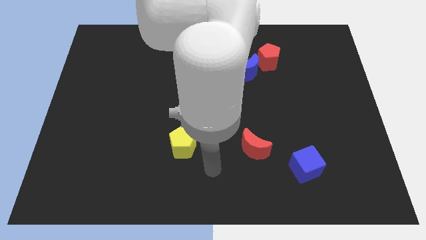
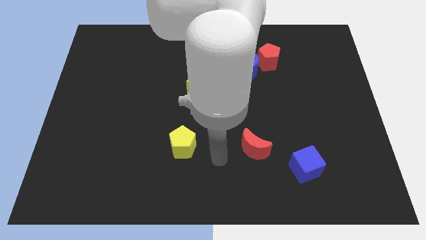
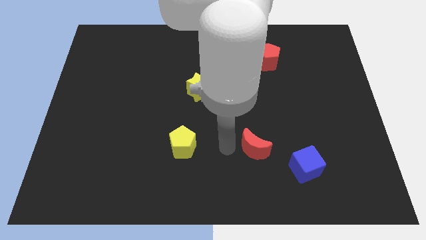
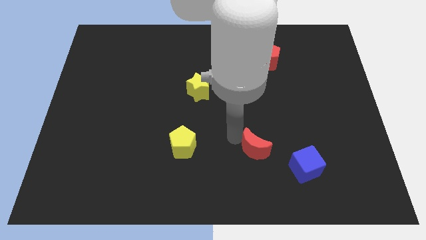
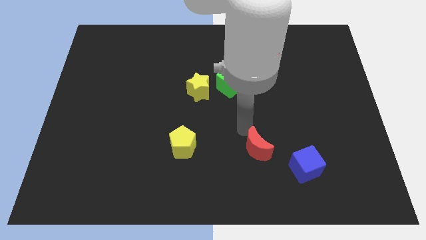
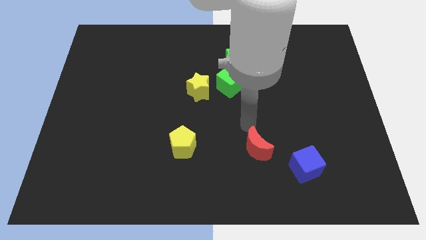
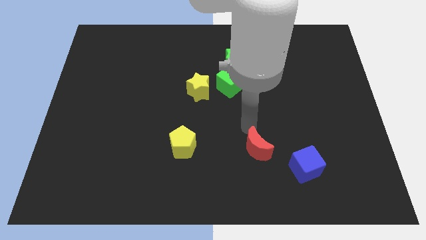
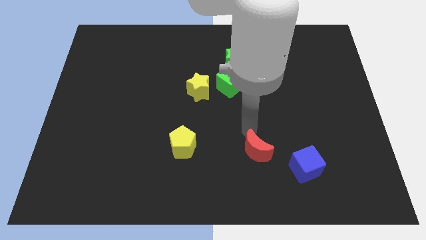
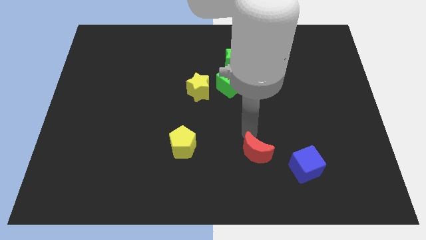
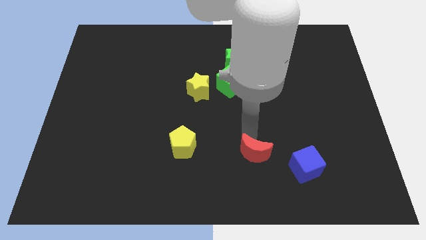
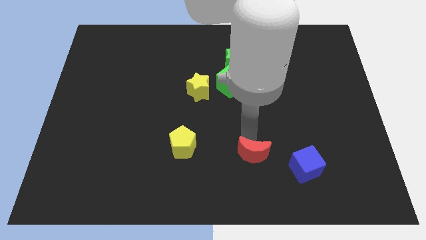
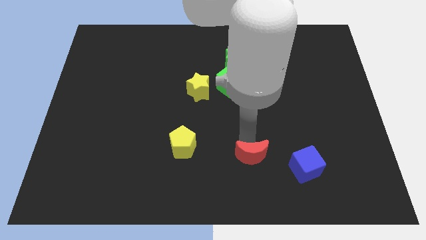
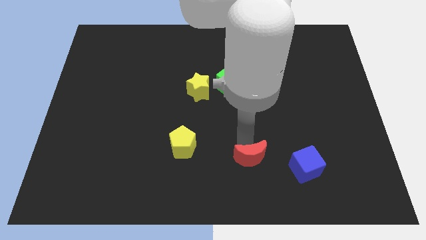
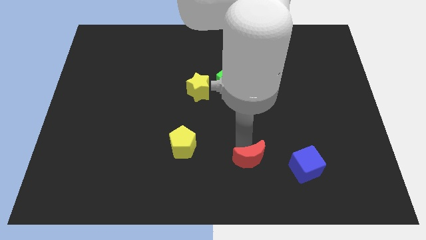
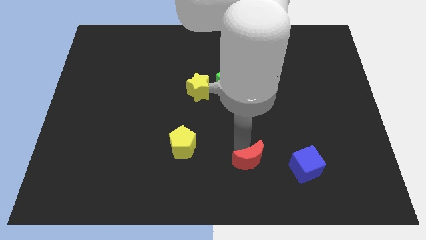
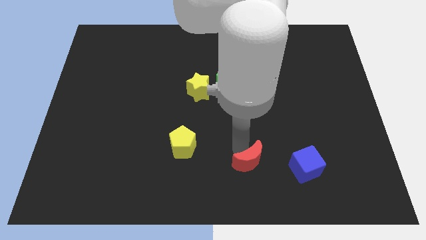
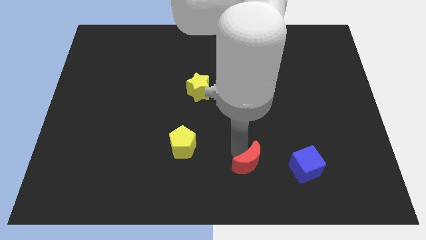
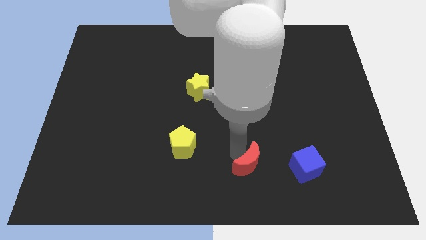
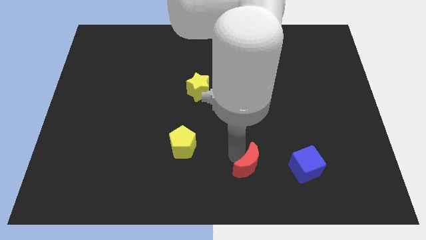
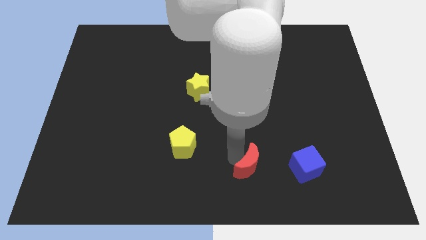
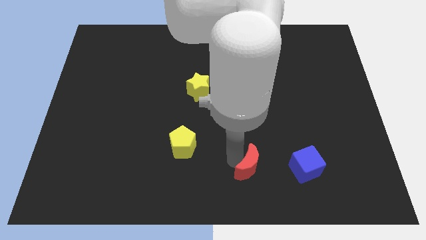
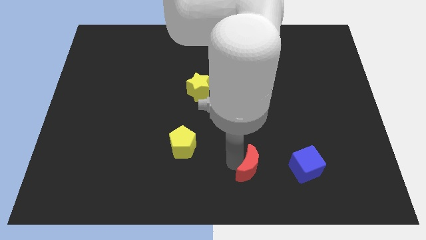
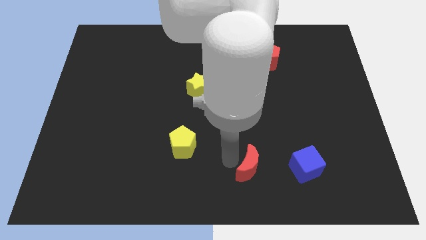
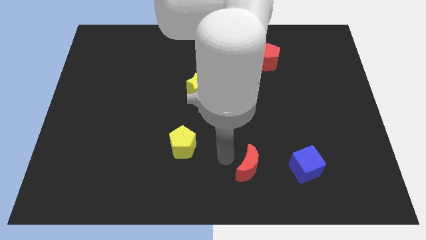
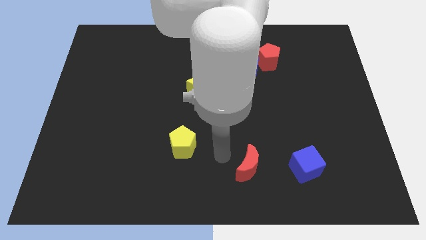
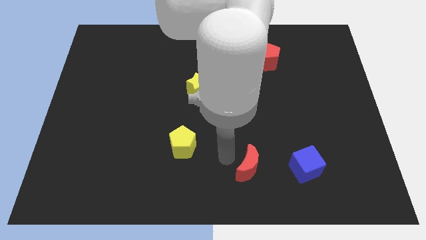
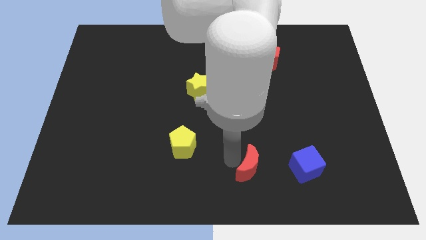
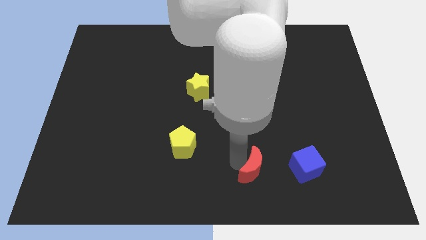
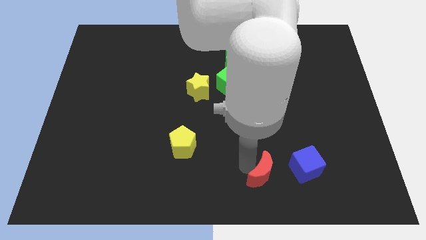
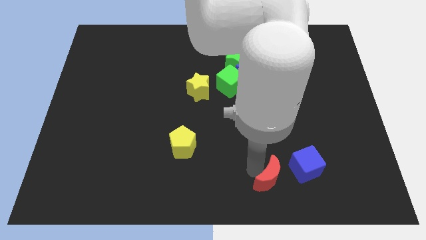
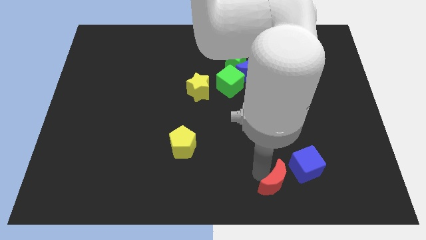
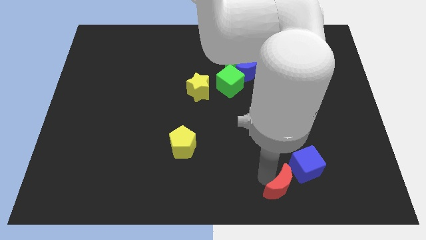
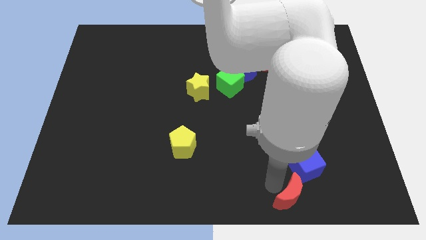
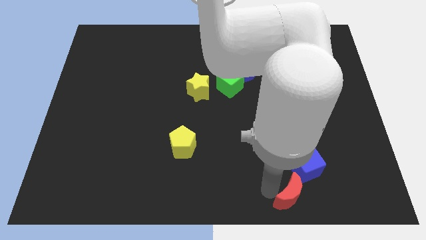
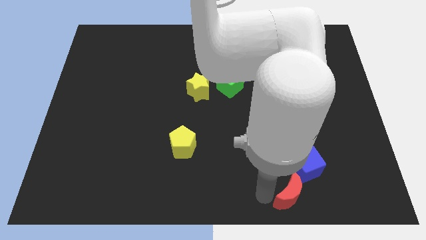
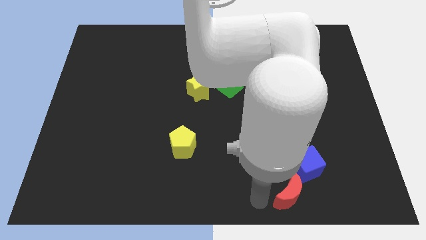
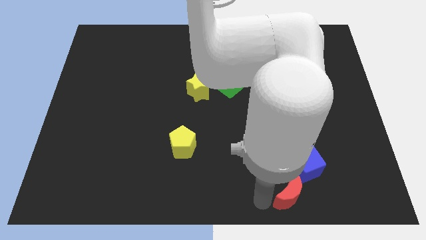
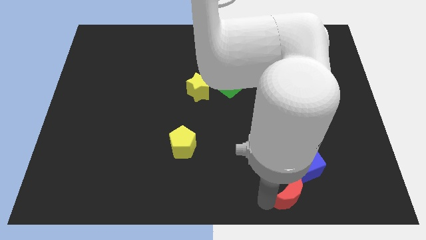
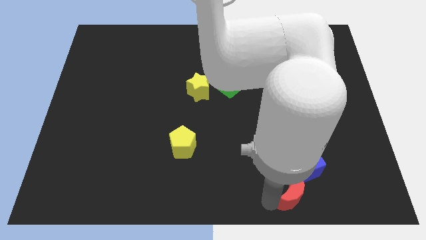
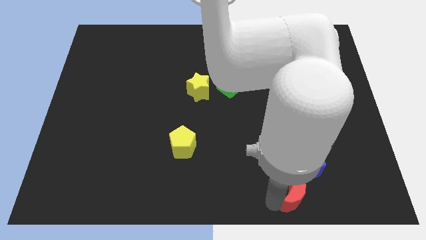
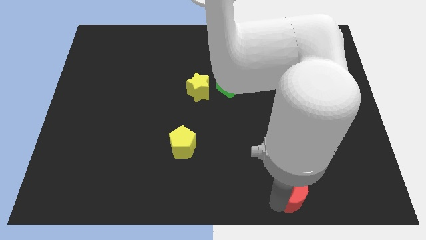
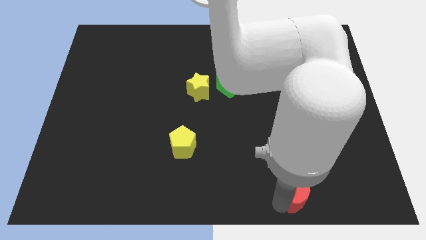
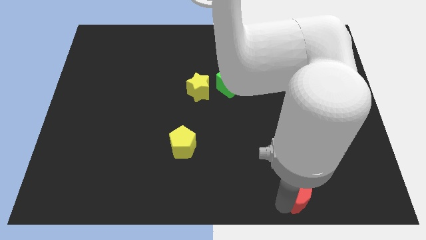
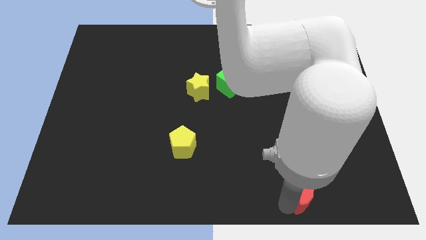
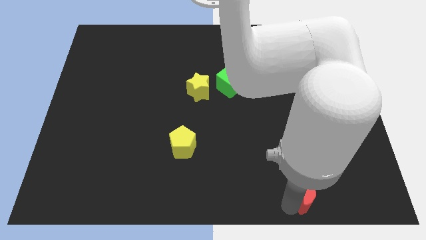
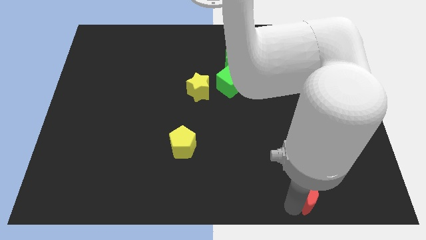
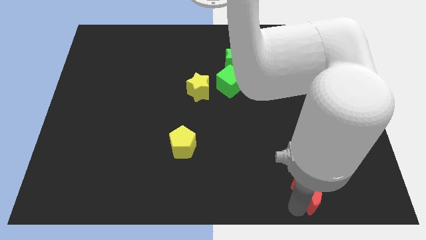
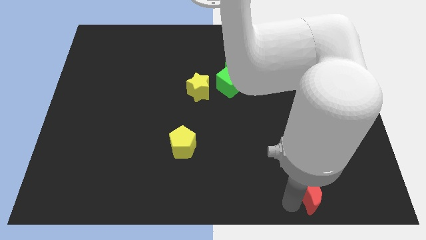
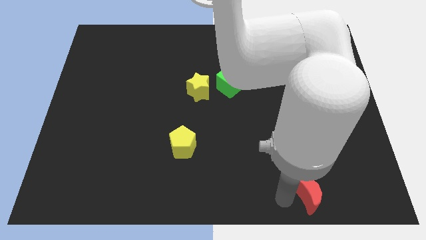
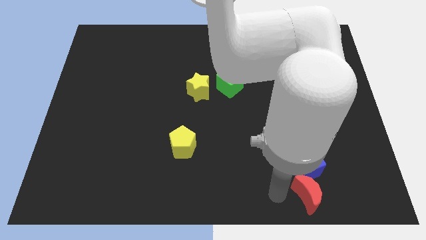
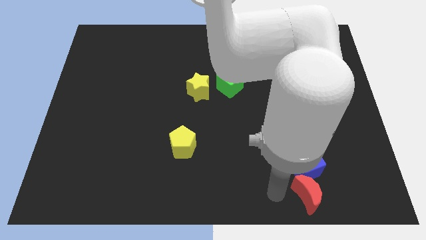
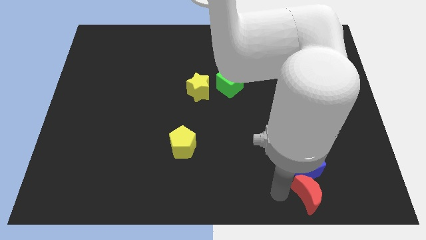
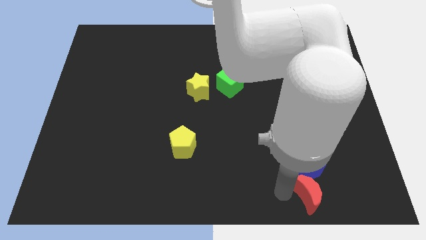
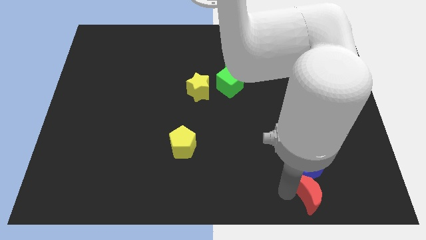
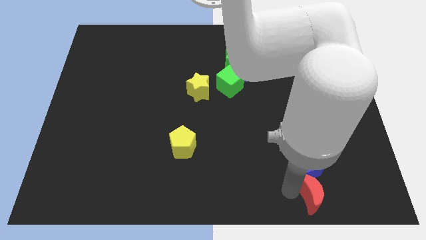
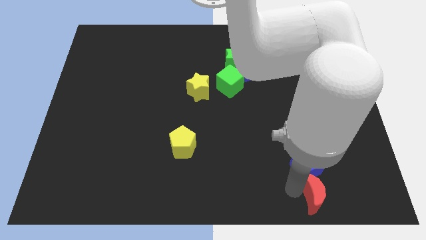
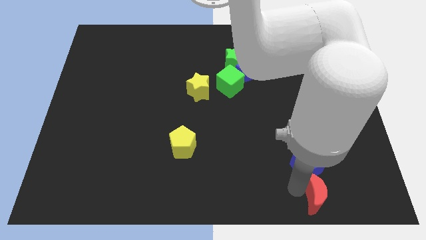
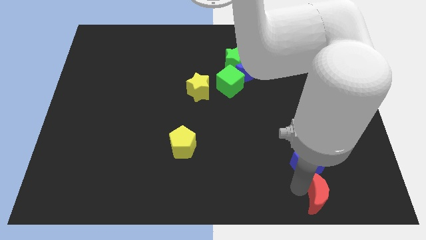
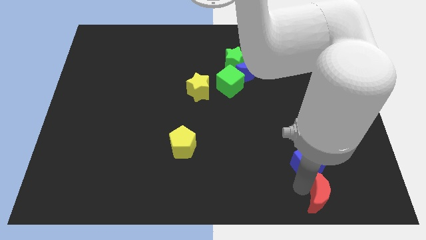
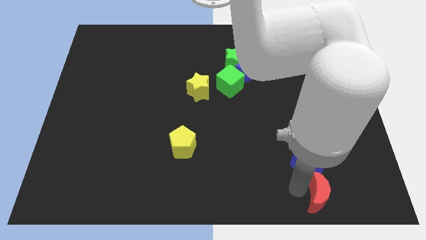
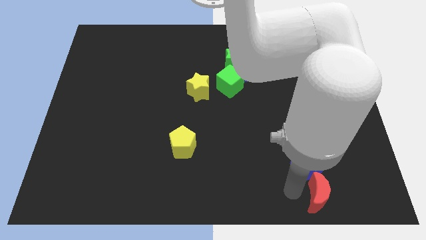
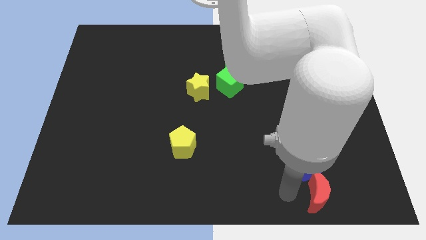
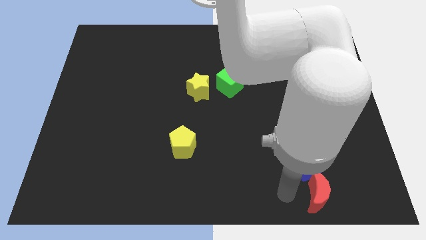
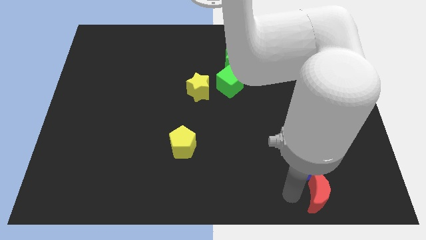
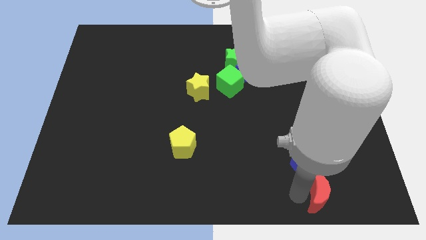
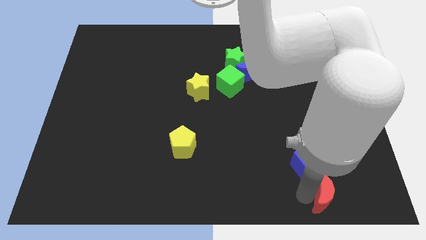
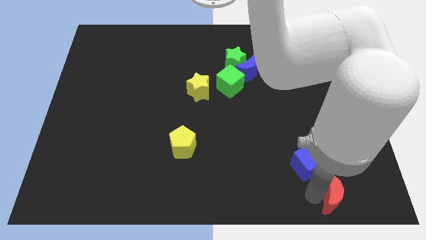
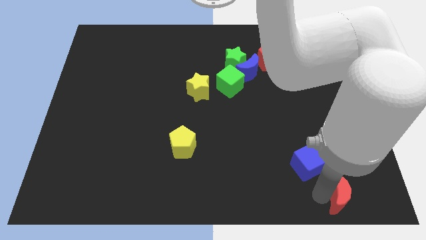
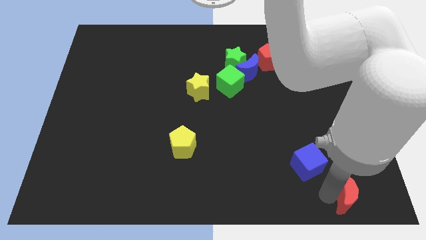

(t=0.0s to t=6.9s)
put the red moon to the bottom right of the board

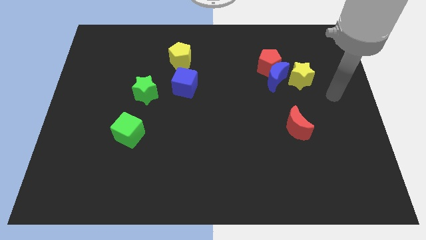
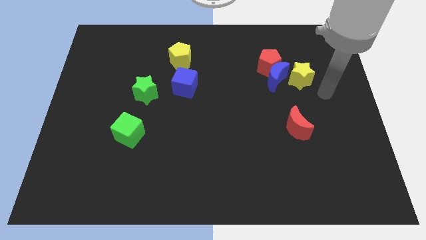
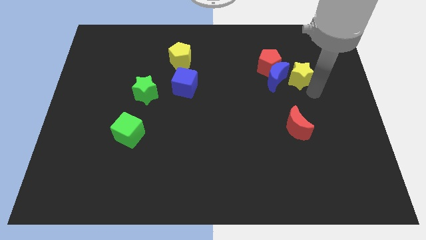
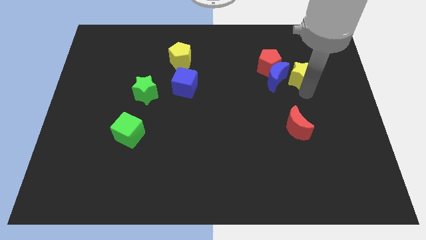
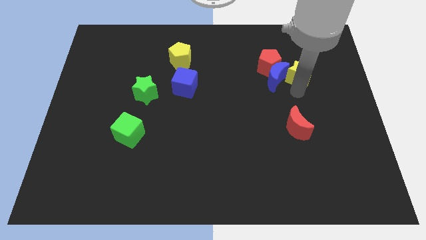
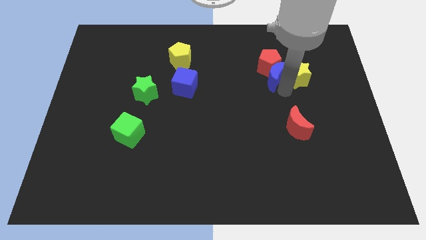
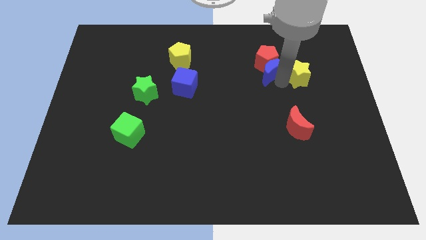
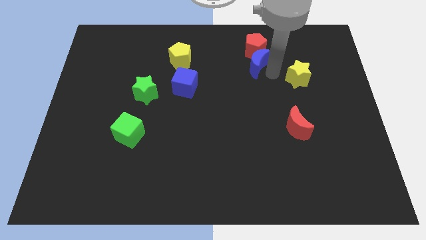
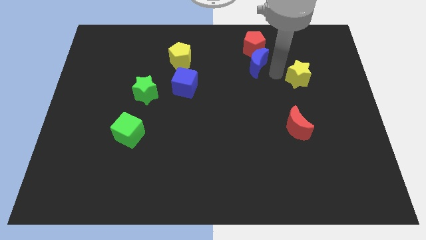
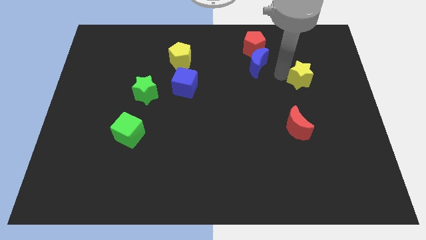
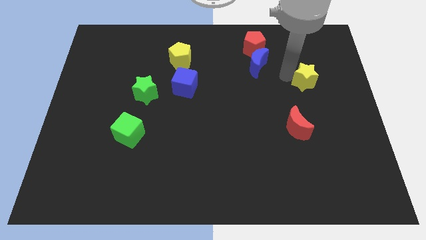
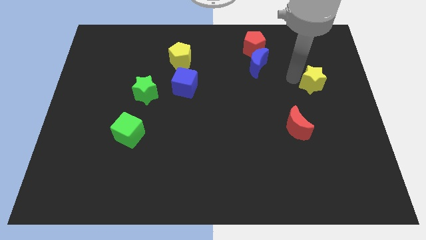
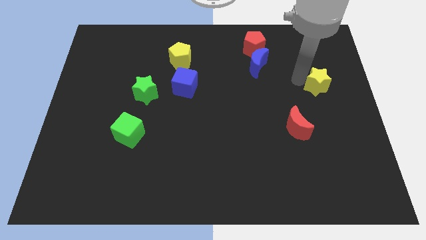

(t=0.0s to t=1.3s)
slide the yellow star to the right side of the board
